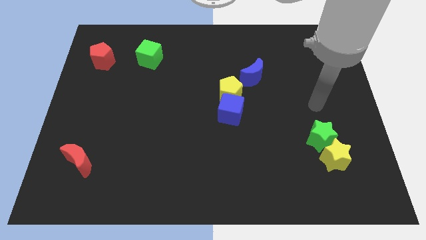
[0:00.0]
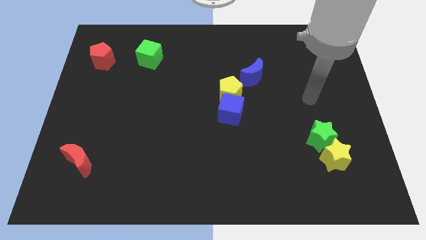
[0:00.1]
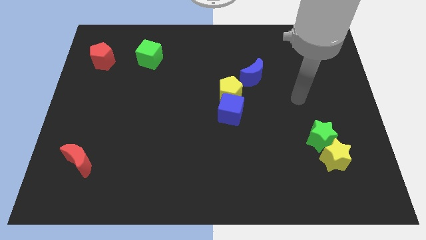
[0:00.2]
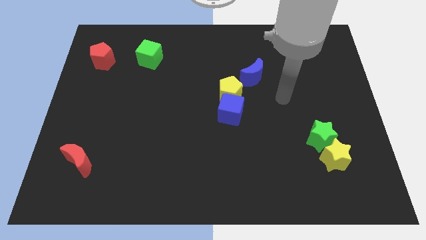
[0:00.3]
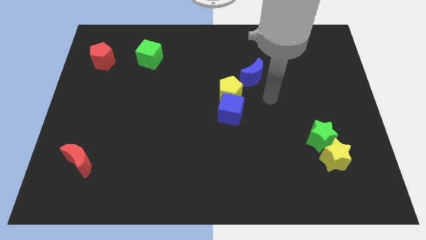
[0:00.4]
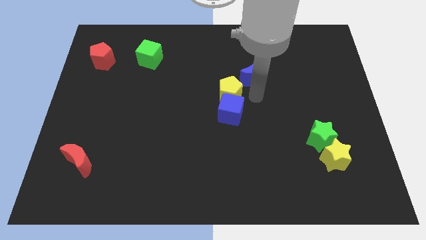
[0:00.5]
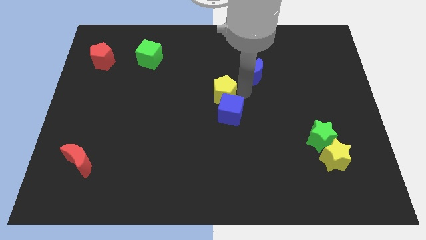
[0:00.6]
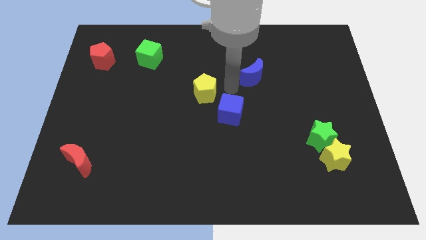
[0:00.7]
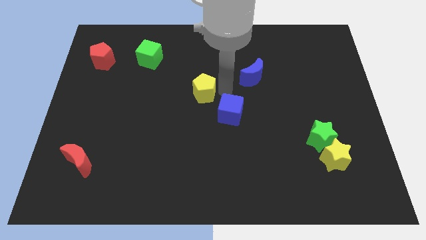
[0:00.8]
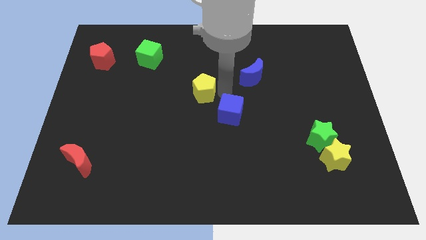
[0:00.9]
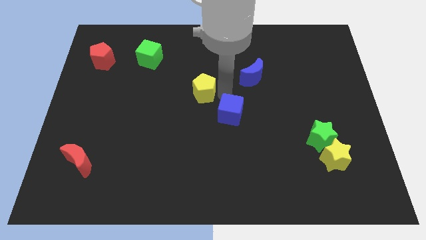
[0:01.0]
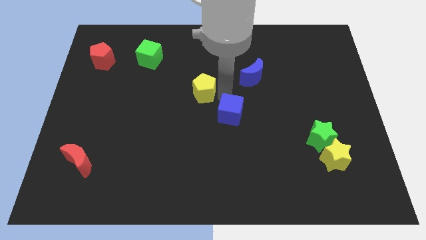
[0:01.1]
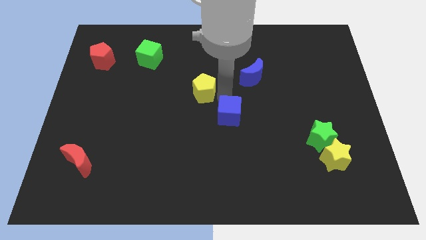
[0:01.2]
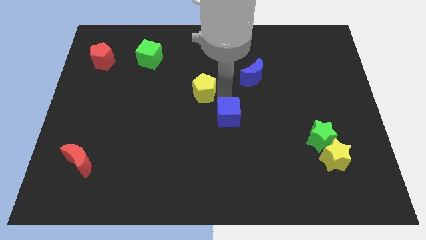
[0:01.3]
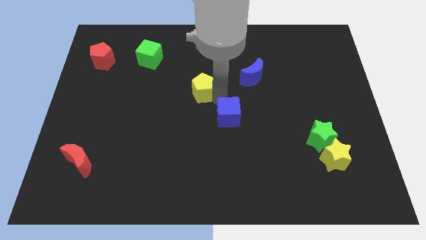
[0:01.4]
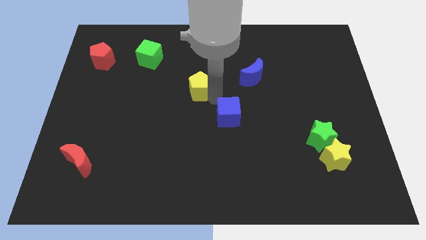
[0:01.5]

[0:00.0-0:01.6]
pull the blue cube apart from the yellow pentagon

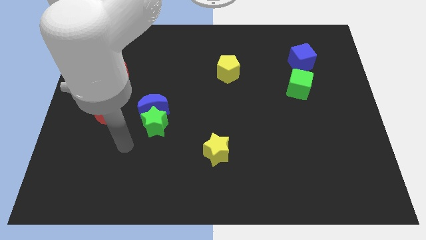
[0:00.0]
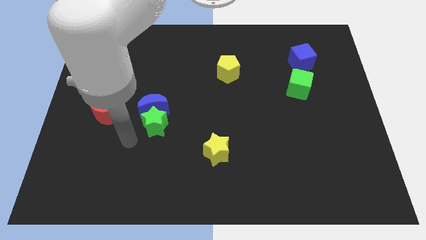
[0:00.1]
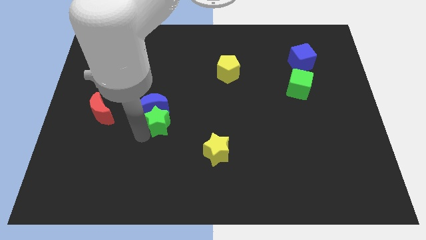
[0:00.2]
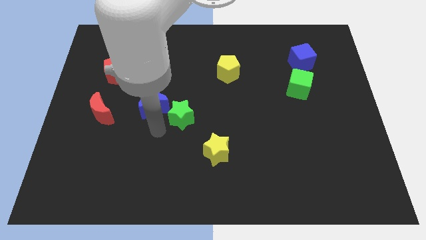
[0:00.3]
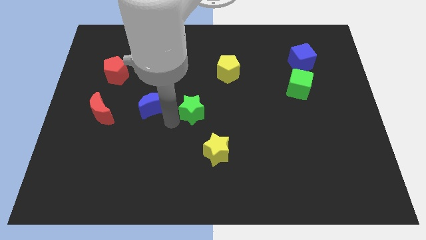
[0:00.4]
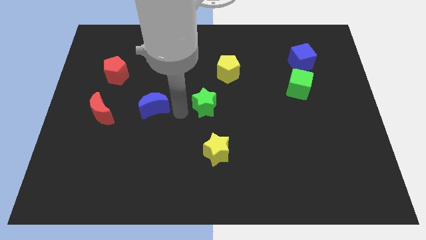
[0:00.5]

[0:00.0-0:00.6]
move the blue moon away from the green star

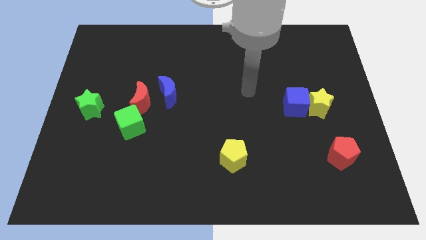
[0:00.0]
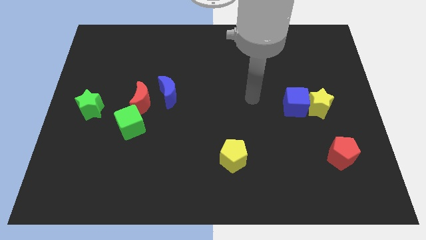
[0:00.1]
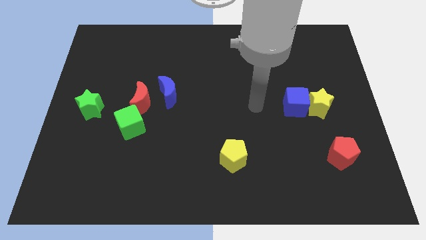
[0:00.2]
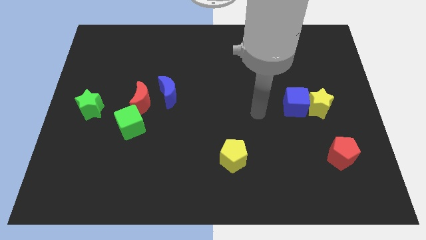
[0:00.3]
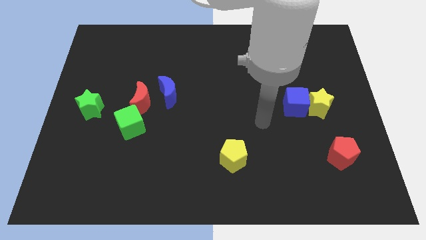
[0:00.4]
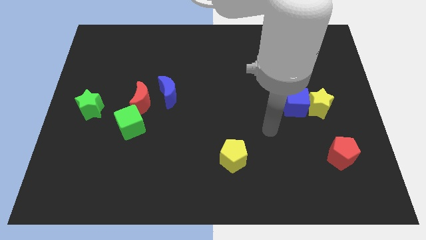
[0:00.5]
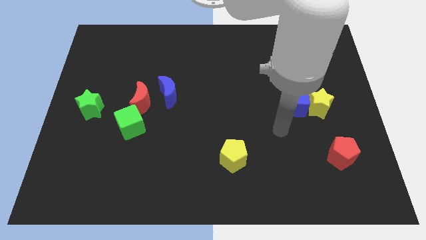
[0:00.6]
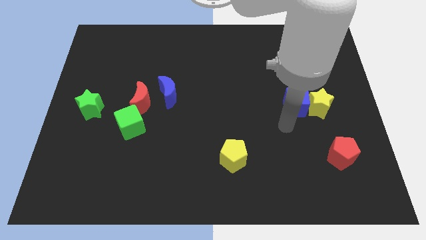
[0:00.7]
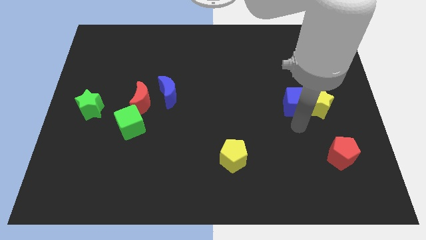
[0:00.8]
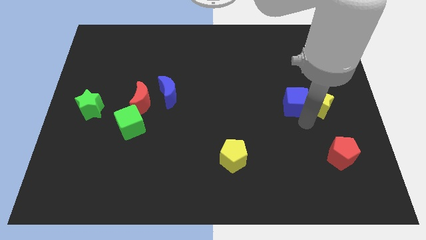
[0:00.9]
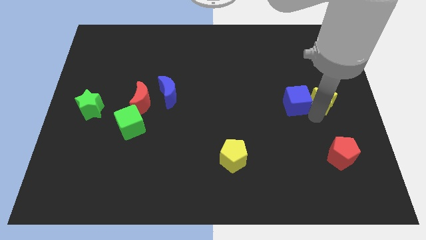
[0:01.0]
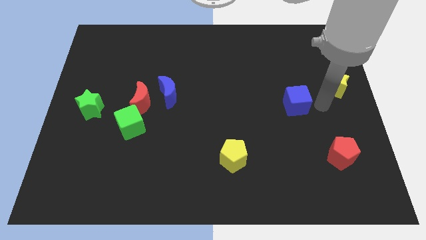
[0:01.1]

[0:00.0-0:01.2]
pull the blue cube apart from the yellow star

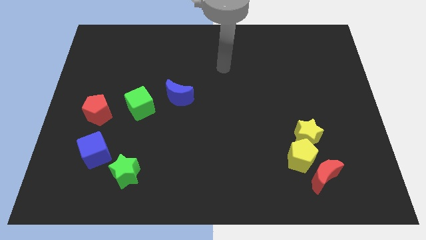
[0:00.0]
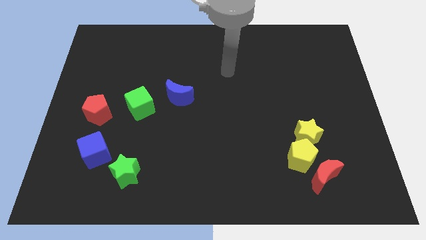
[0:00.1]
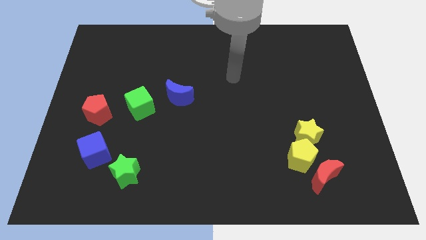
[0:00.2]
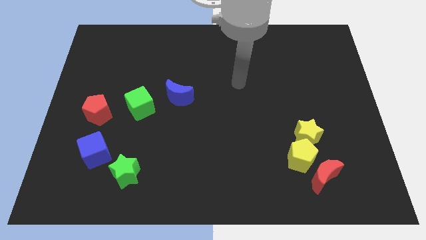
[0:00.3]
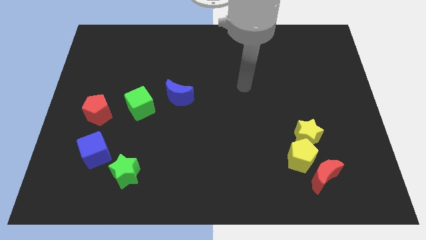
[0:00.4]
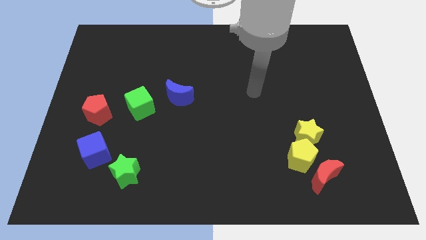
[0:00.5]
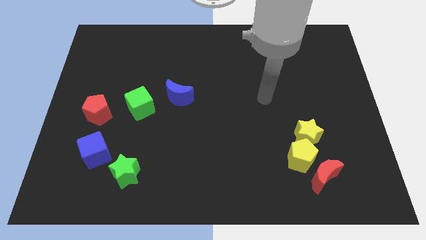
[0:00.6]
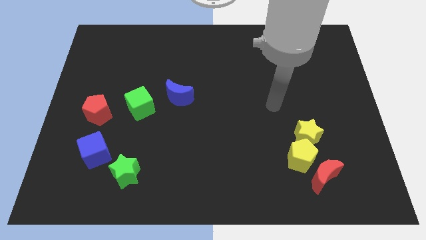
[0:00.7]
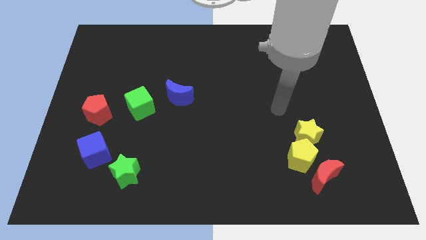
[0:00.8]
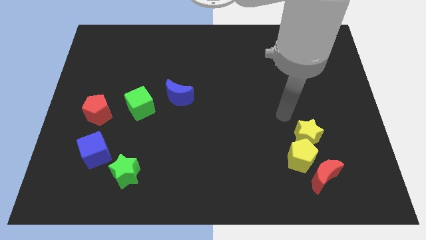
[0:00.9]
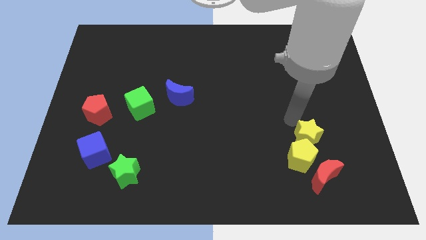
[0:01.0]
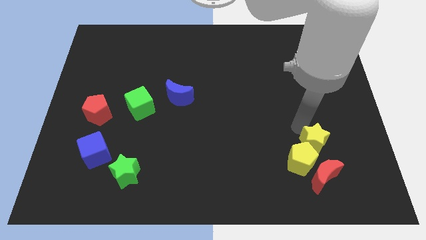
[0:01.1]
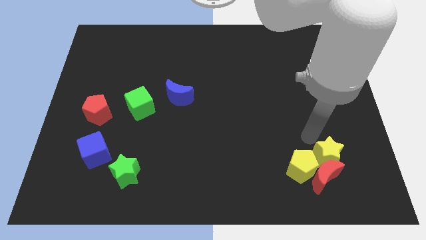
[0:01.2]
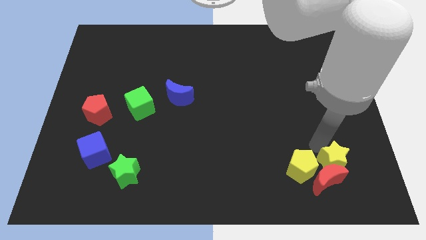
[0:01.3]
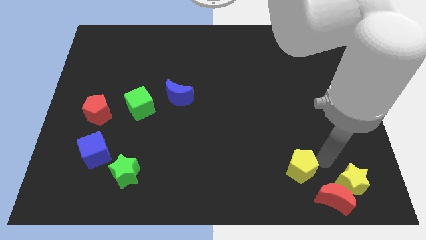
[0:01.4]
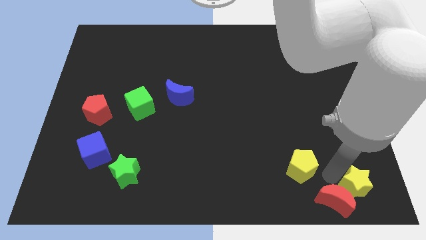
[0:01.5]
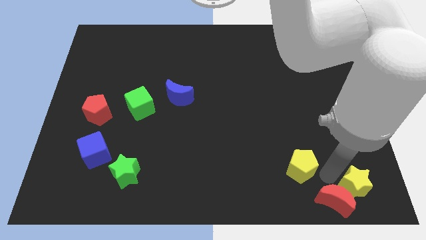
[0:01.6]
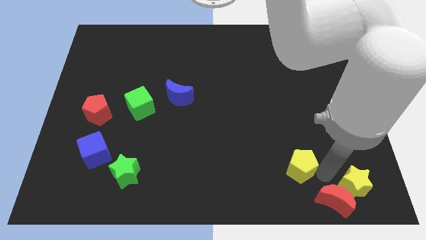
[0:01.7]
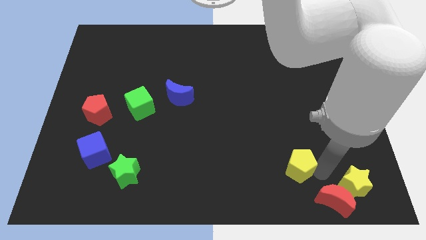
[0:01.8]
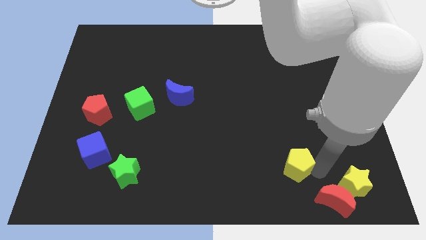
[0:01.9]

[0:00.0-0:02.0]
pull the yellow pentagon apart from the red moon and yellow star

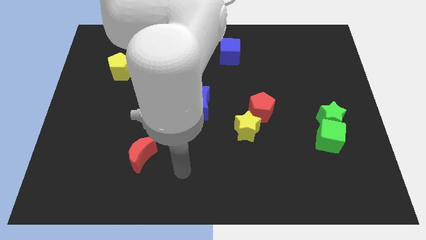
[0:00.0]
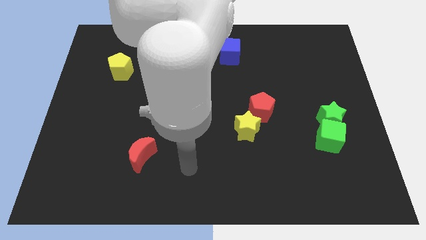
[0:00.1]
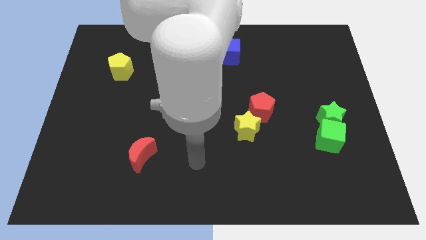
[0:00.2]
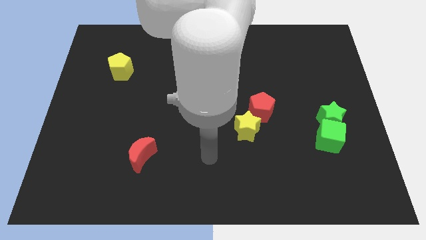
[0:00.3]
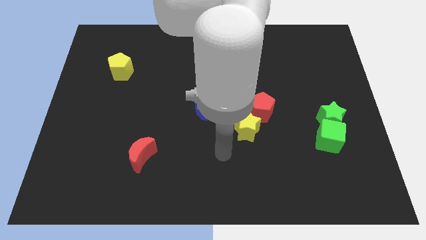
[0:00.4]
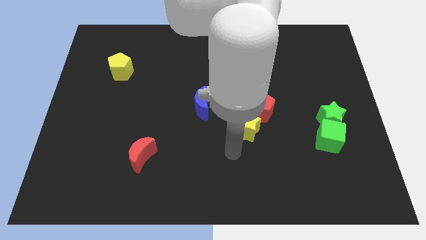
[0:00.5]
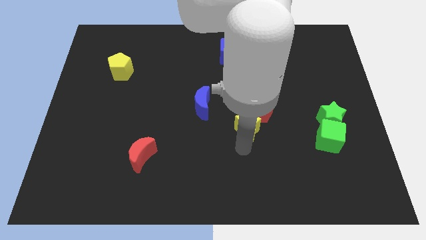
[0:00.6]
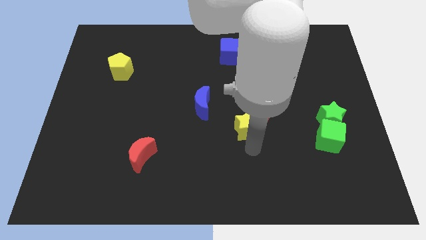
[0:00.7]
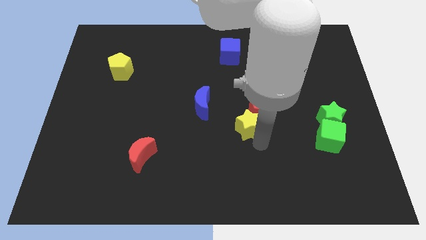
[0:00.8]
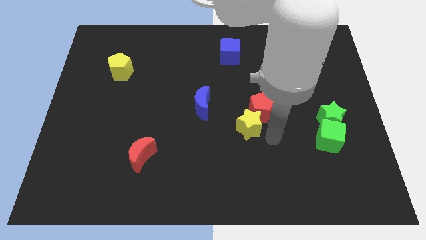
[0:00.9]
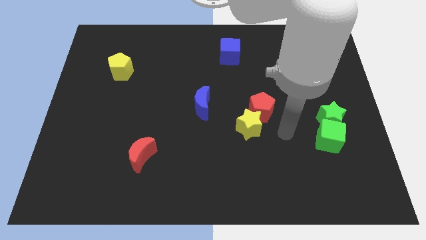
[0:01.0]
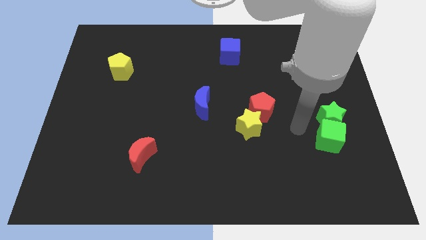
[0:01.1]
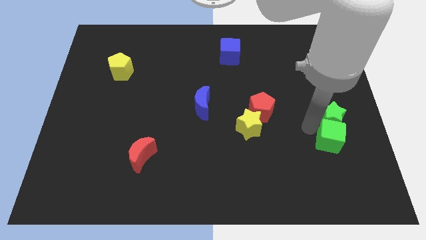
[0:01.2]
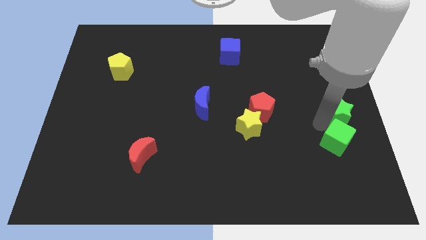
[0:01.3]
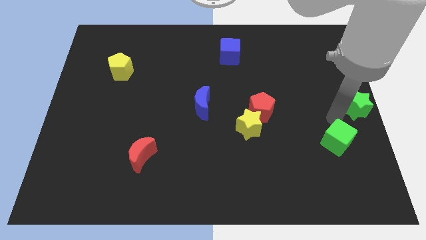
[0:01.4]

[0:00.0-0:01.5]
move the green cube away from the green star

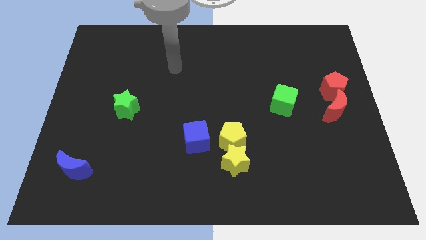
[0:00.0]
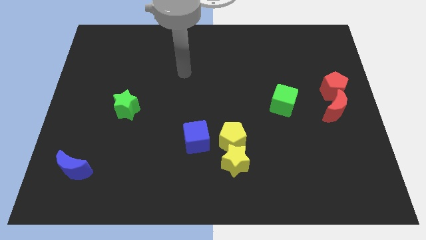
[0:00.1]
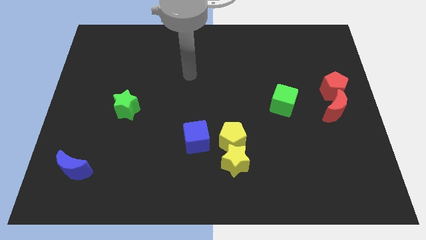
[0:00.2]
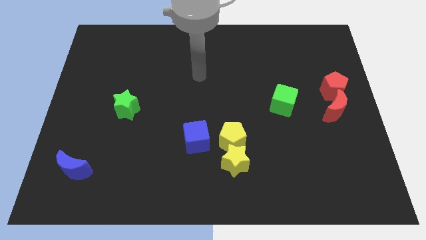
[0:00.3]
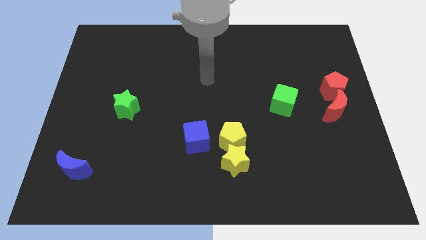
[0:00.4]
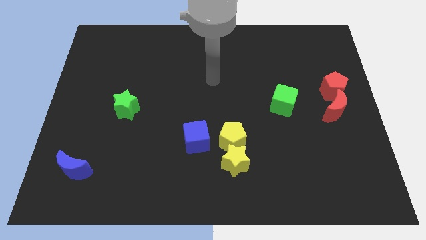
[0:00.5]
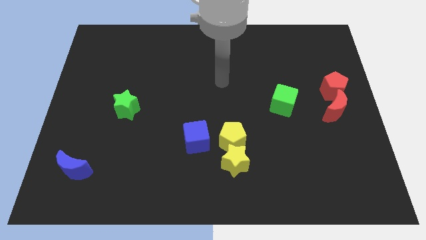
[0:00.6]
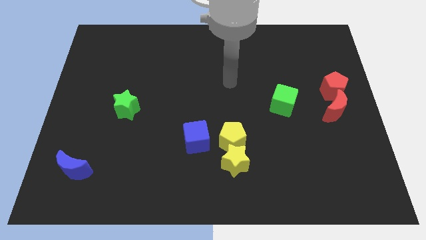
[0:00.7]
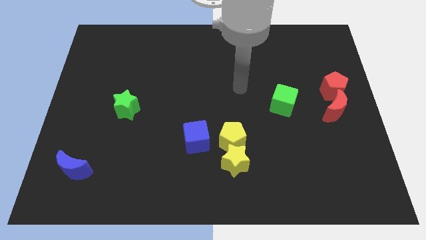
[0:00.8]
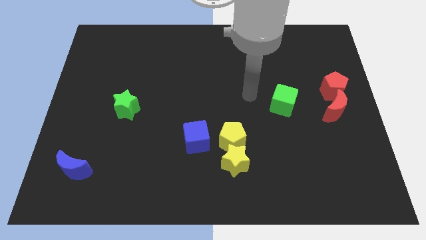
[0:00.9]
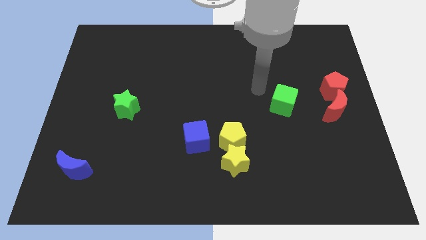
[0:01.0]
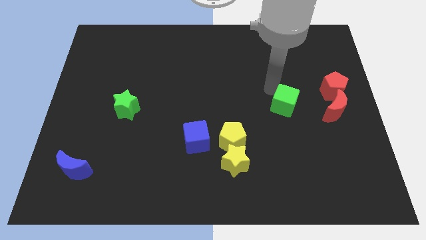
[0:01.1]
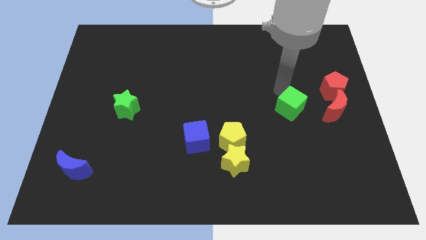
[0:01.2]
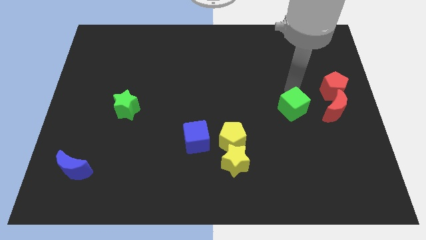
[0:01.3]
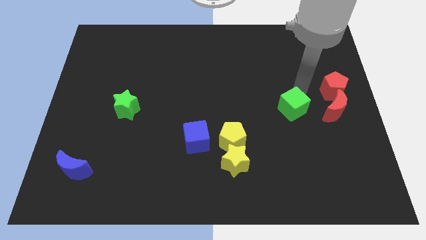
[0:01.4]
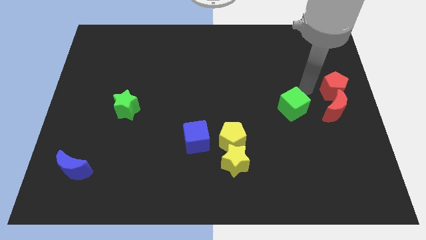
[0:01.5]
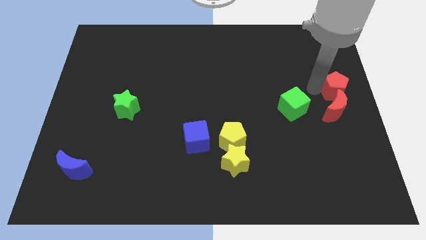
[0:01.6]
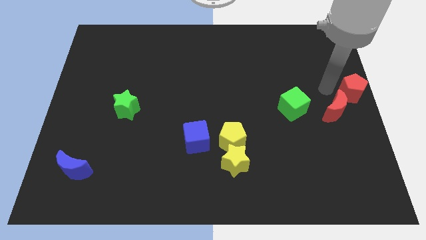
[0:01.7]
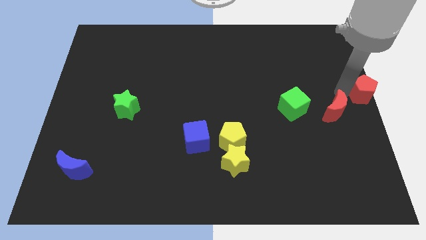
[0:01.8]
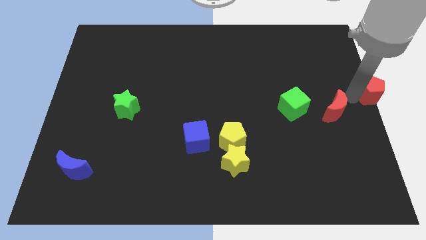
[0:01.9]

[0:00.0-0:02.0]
separate the red moon from the red pentagon

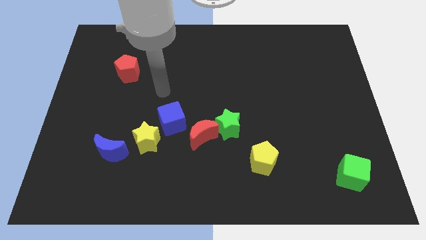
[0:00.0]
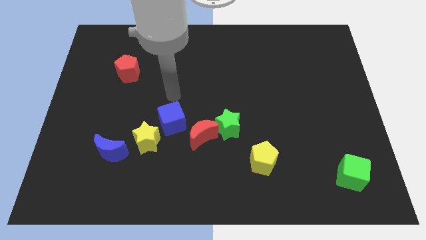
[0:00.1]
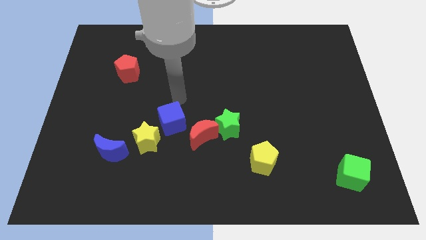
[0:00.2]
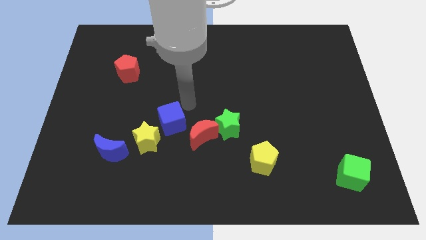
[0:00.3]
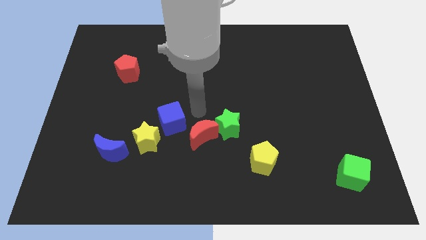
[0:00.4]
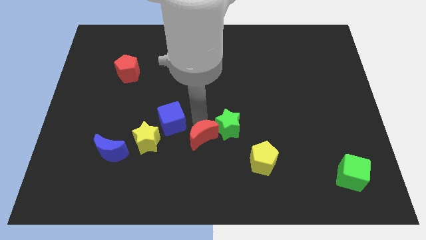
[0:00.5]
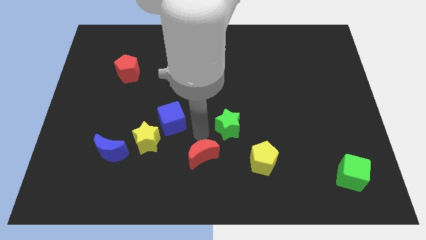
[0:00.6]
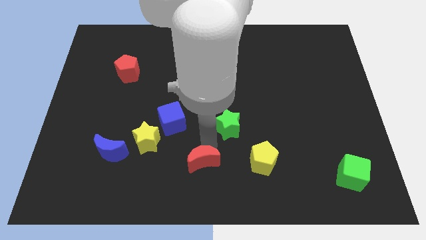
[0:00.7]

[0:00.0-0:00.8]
move the green star away from the red moon
